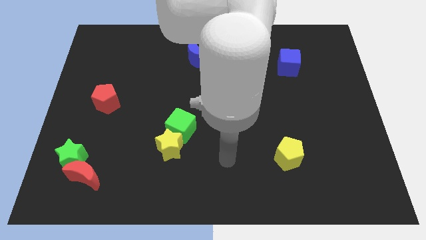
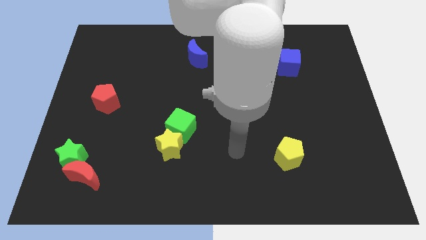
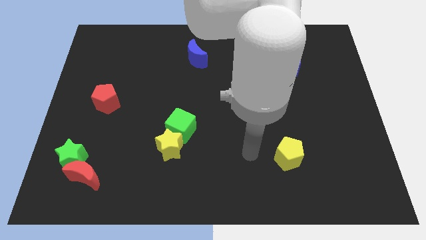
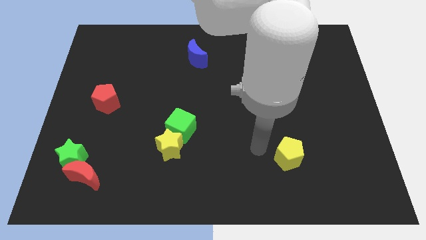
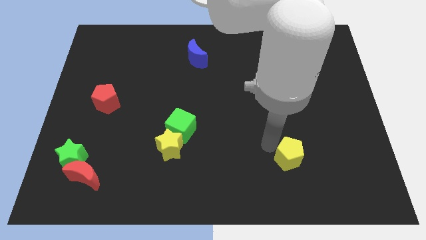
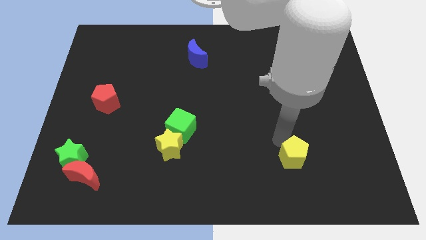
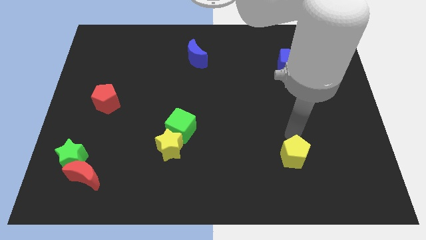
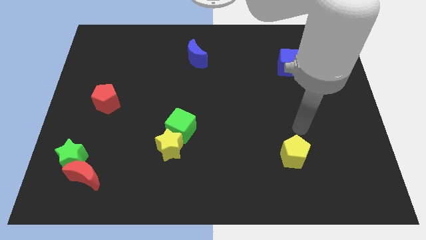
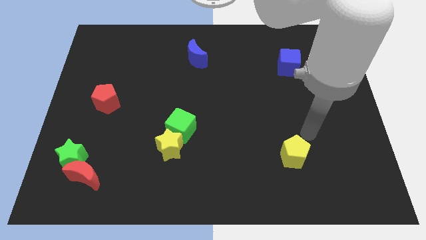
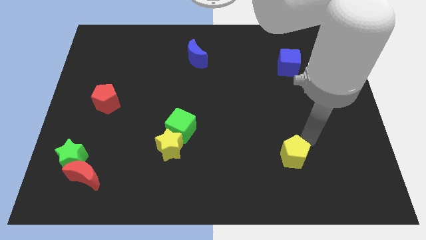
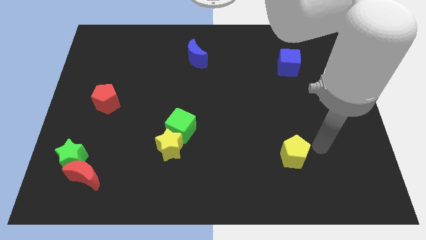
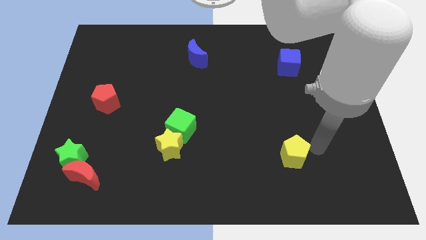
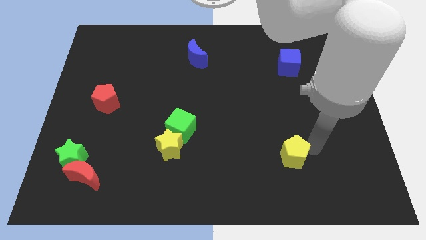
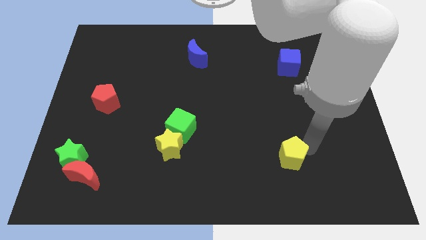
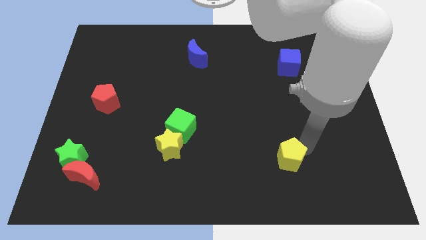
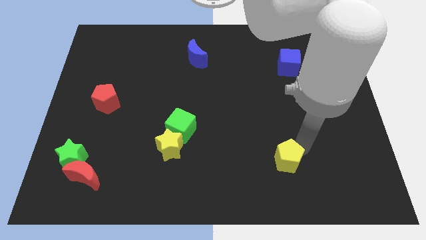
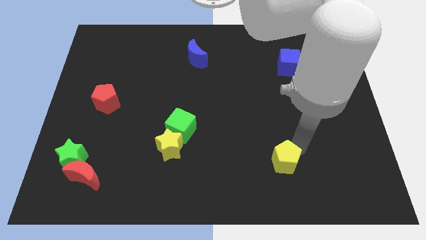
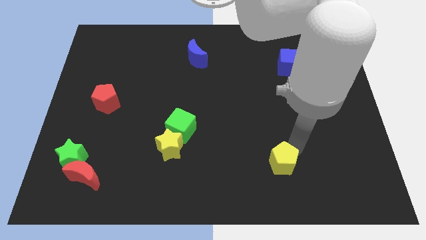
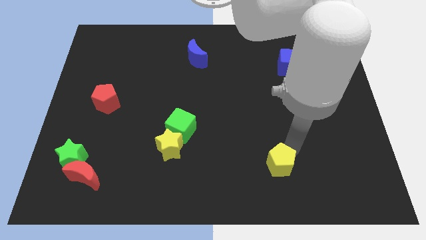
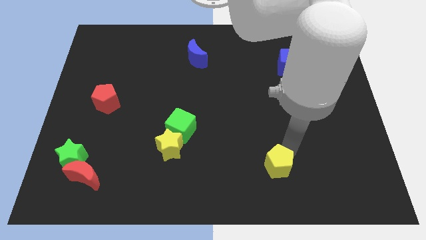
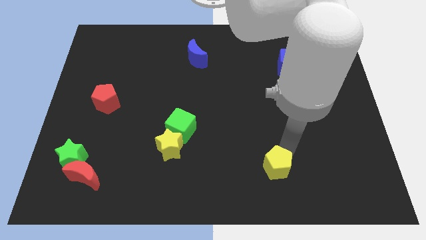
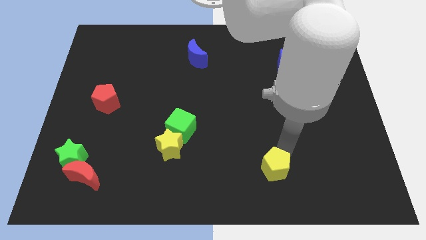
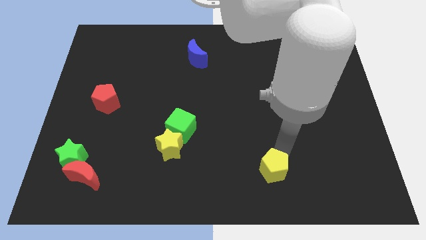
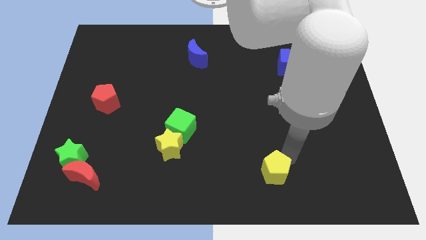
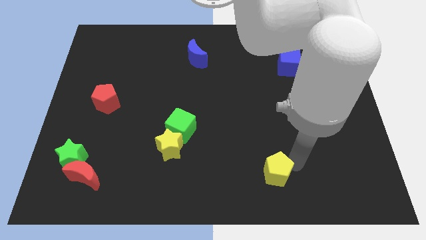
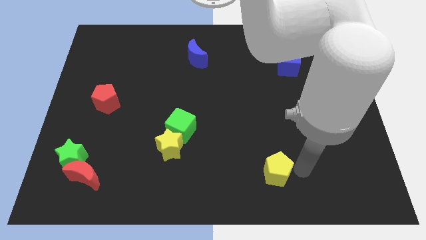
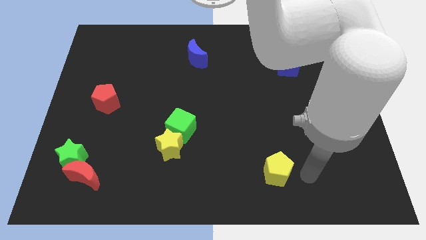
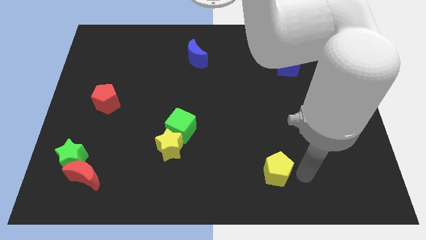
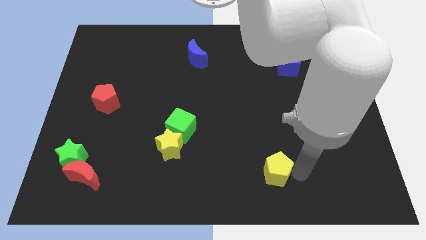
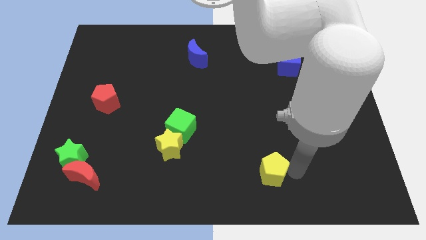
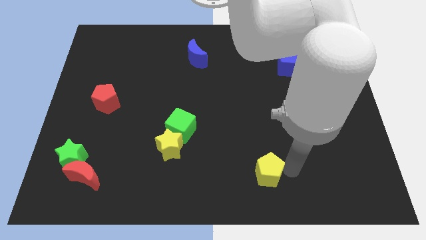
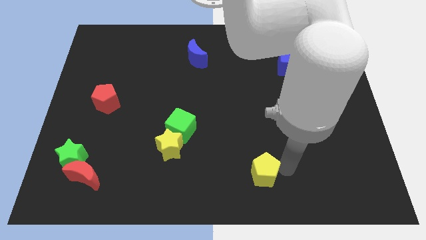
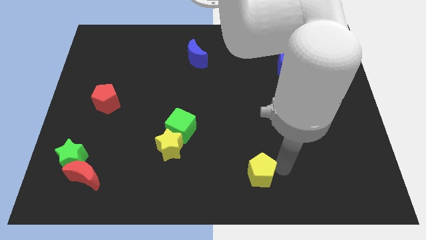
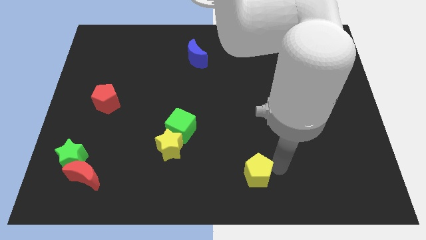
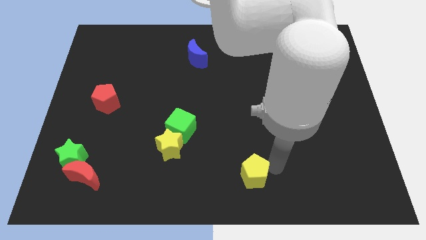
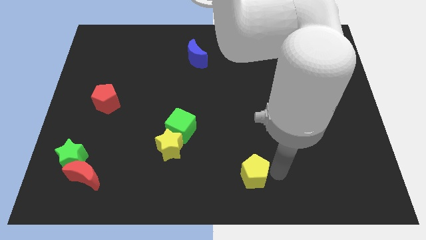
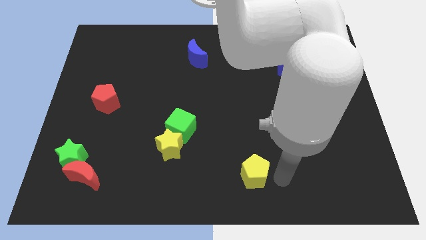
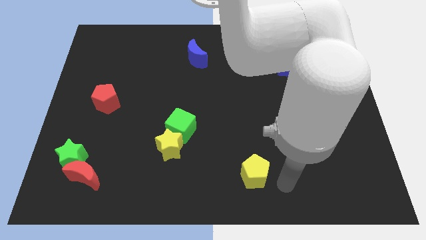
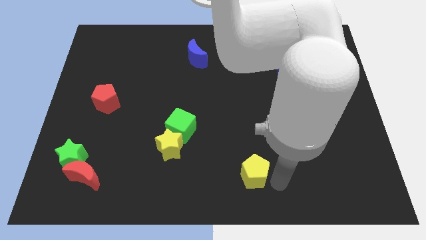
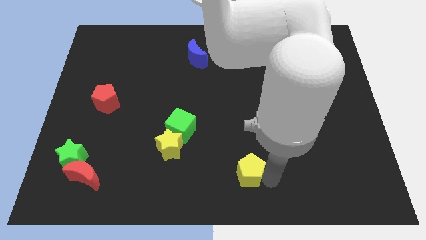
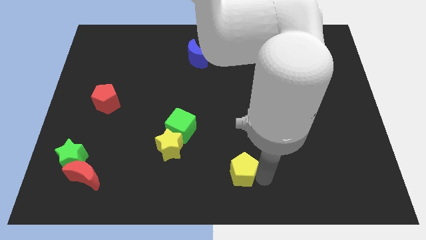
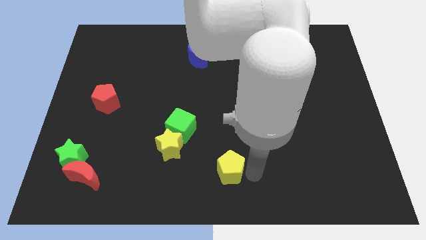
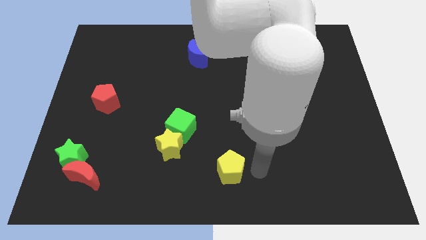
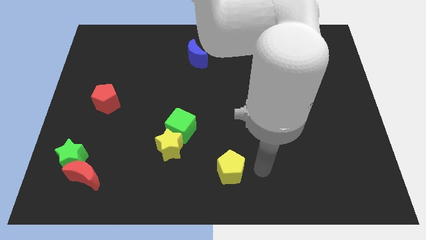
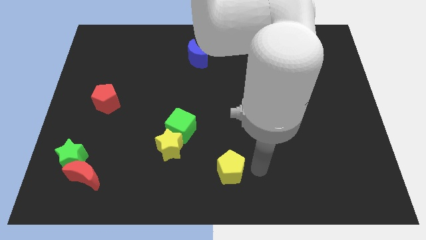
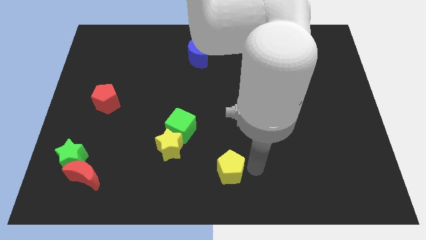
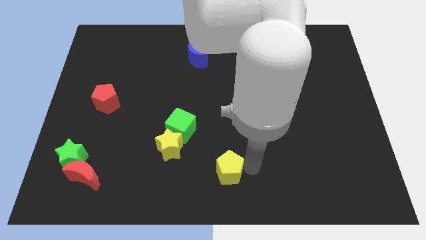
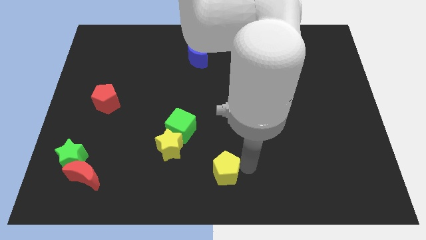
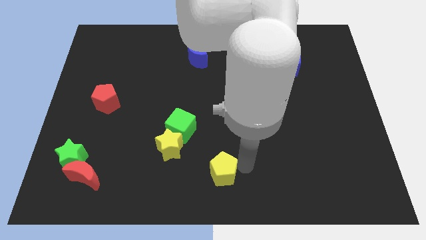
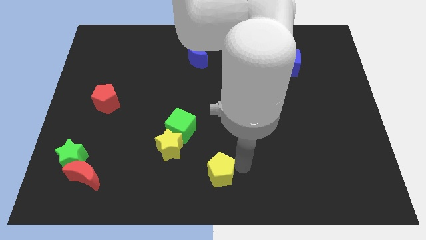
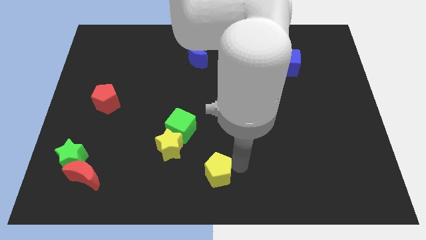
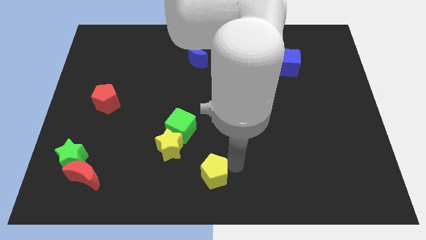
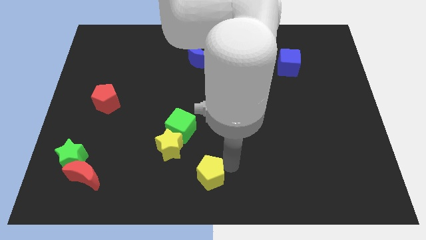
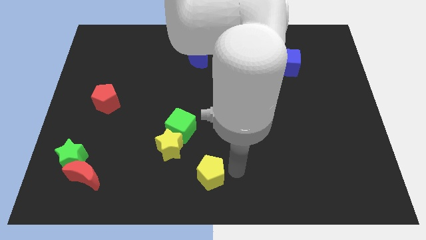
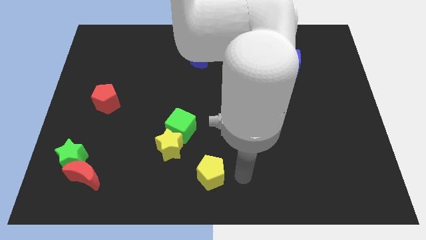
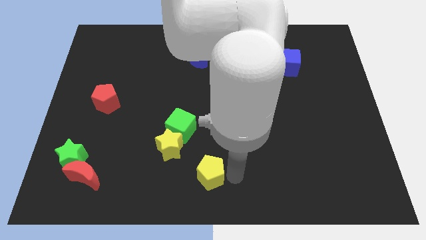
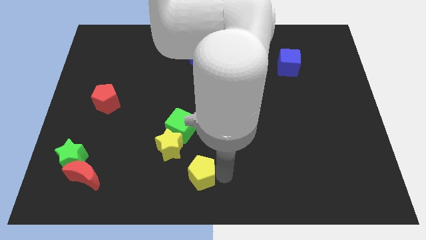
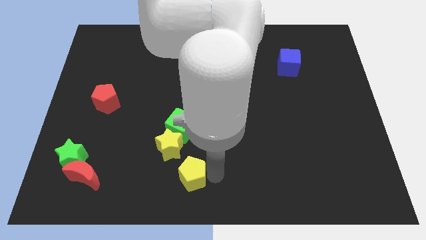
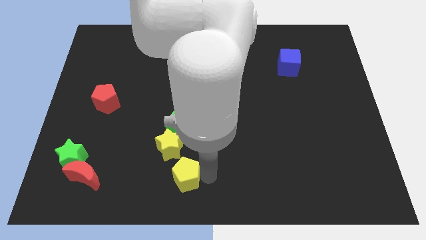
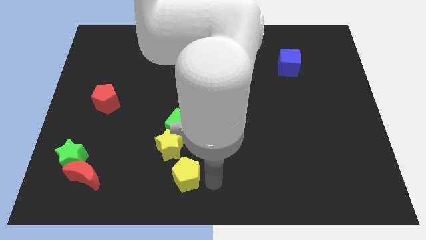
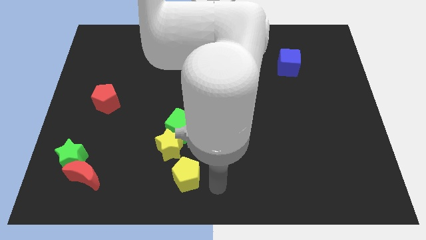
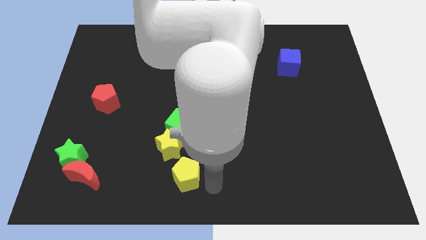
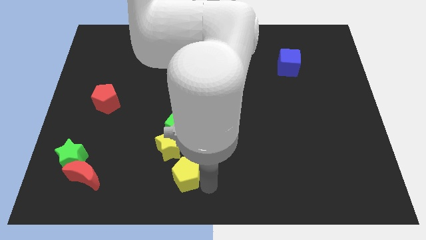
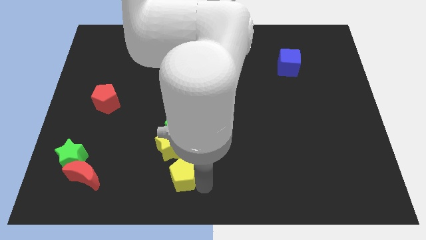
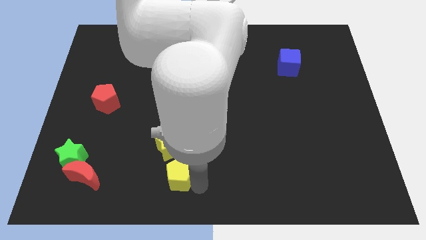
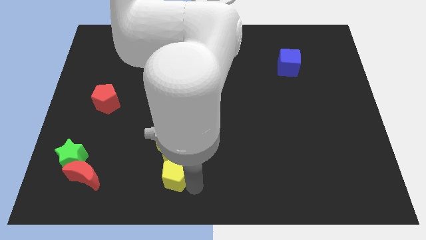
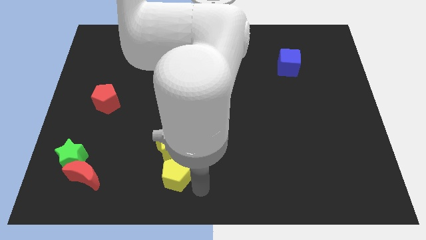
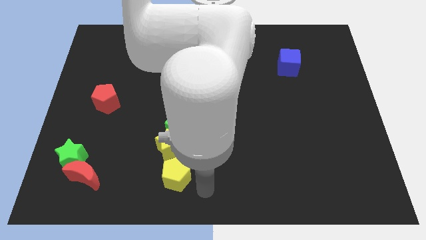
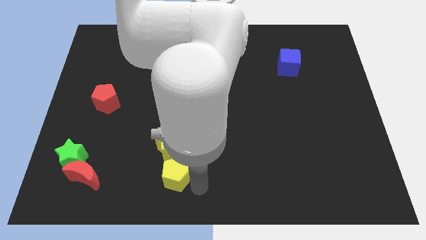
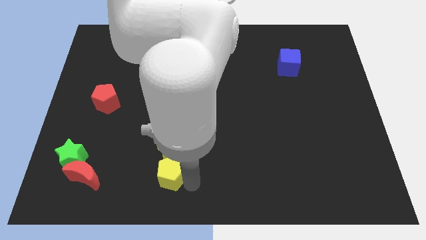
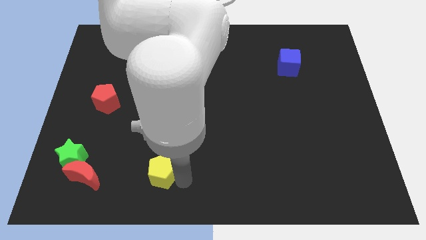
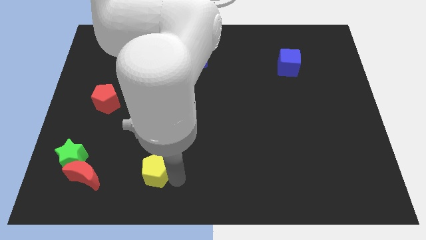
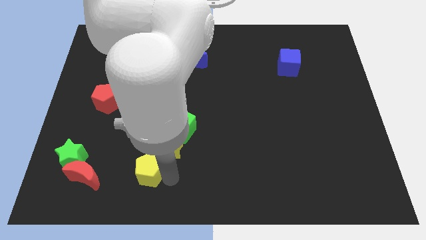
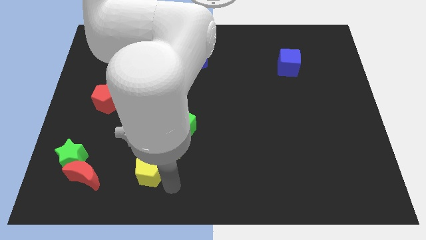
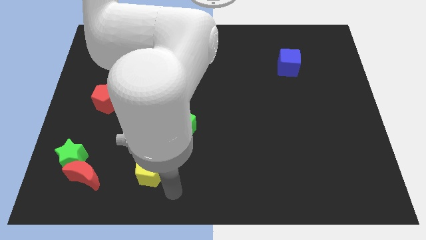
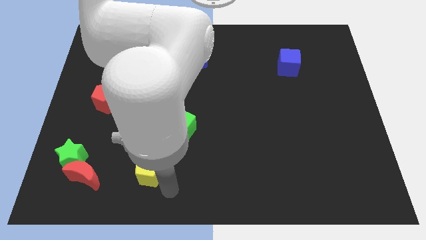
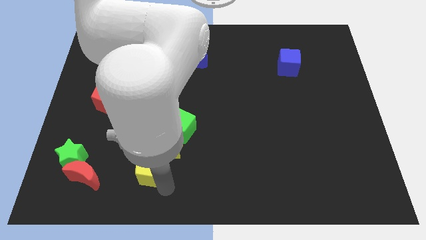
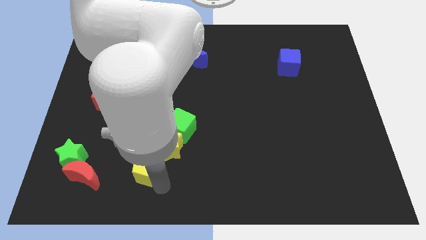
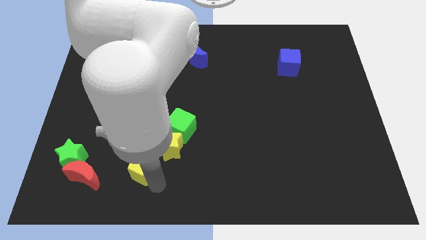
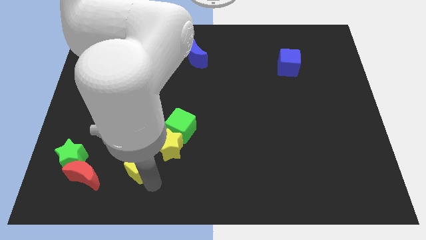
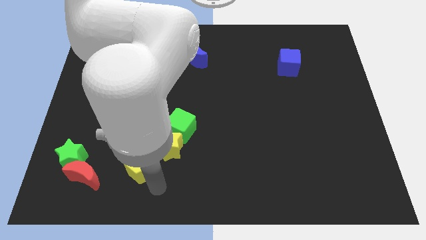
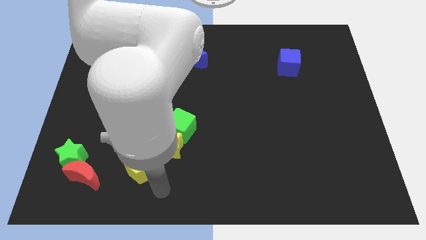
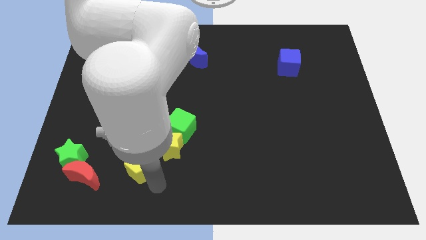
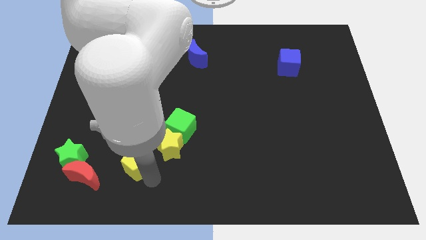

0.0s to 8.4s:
move the yellow pentagon just left of the yellow star
